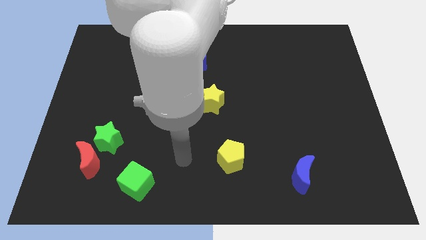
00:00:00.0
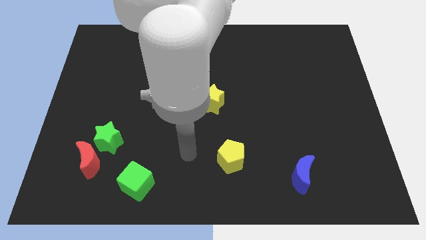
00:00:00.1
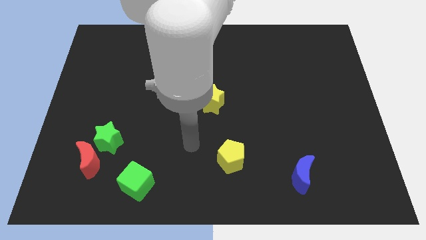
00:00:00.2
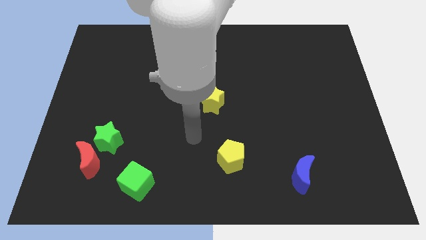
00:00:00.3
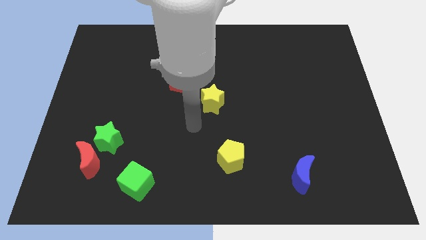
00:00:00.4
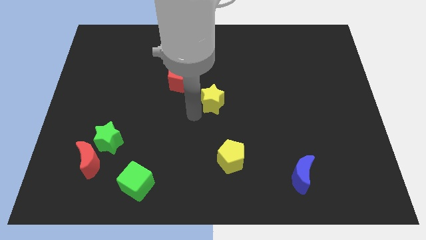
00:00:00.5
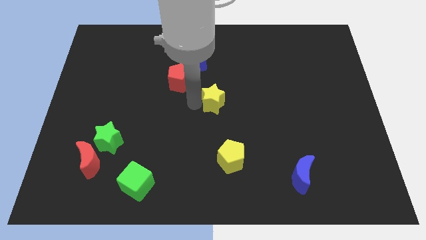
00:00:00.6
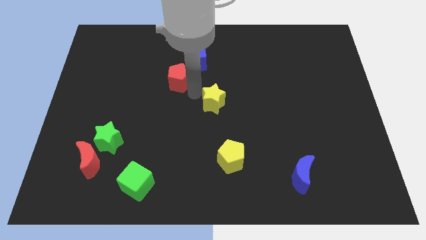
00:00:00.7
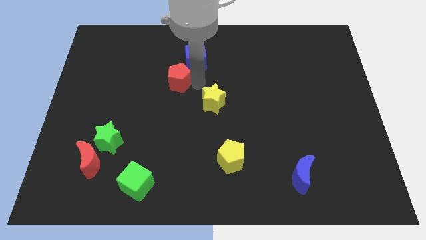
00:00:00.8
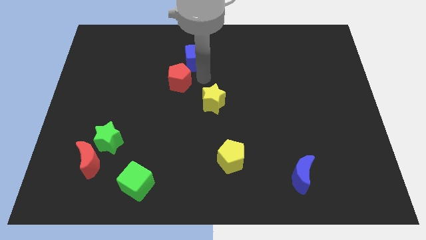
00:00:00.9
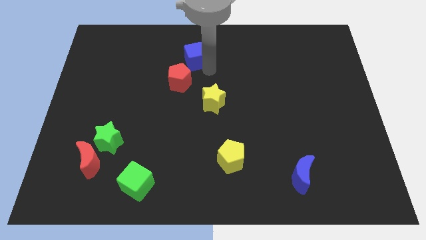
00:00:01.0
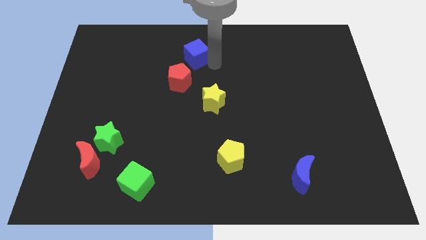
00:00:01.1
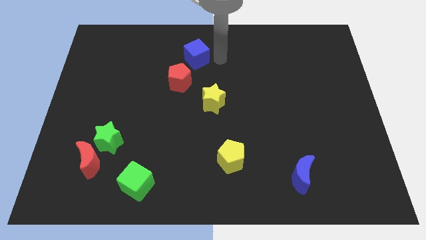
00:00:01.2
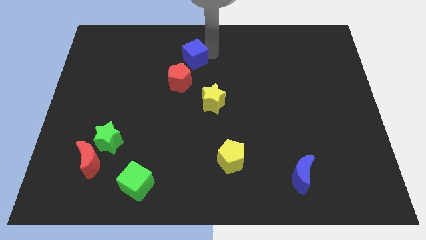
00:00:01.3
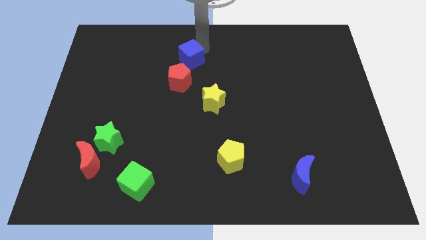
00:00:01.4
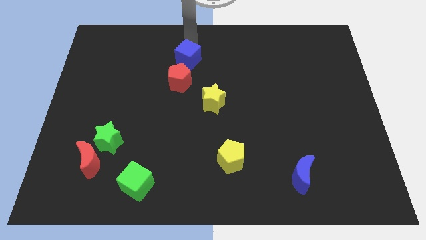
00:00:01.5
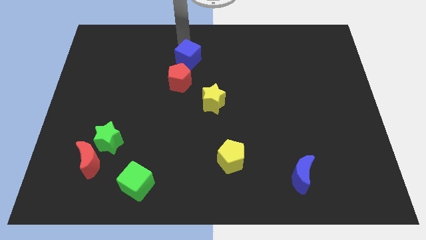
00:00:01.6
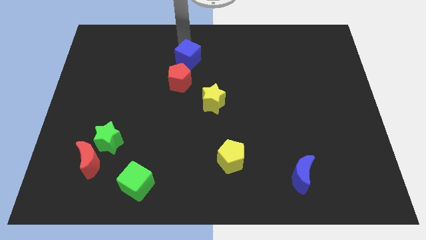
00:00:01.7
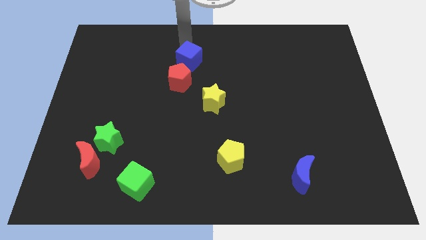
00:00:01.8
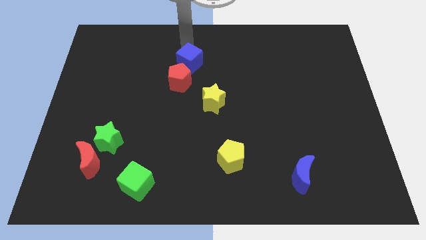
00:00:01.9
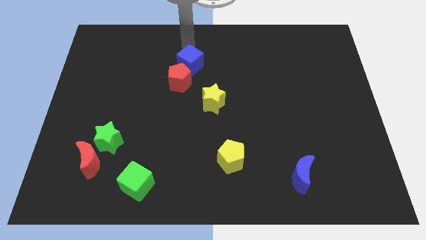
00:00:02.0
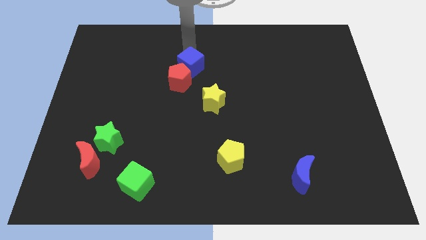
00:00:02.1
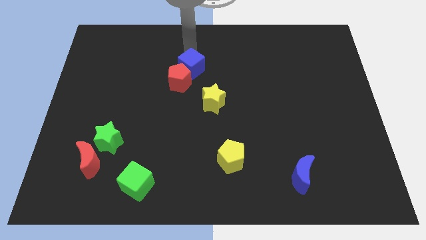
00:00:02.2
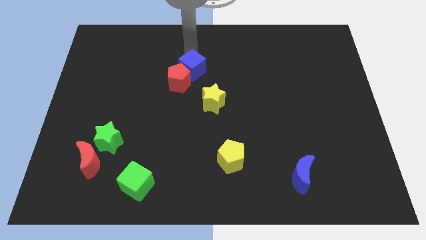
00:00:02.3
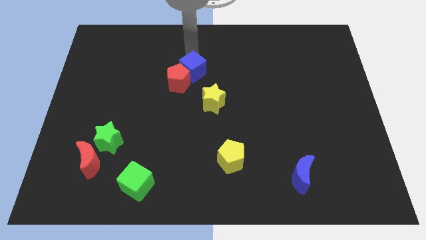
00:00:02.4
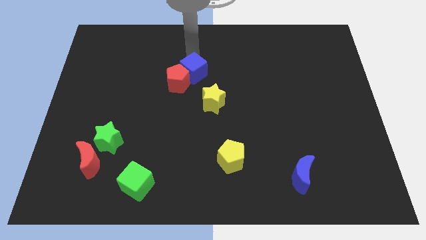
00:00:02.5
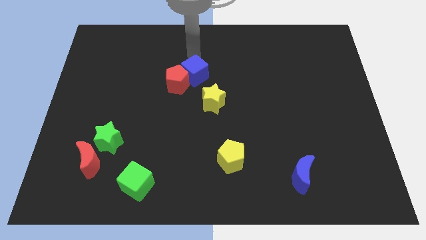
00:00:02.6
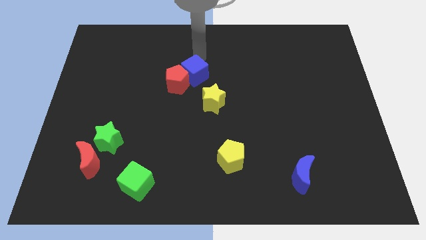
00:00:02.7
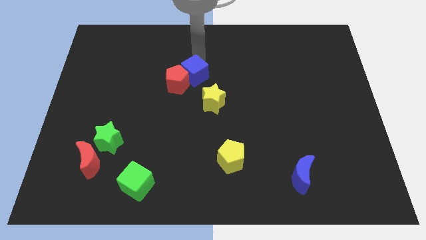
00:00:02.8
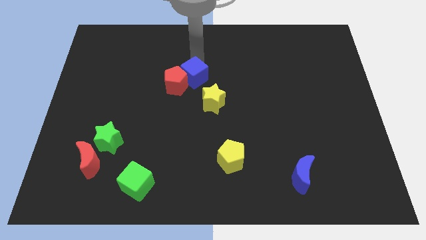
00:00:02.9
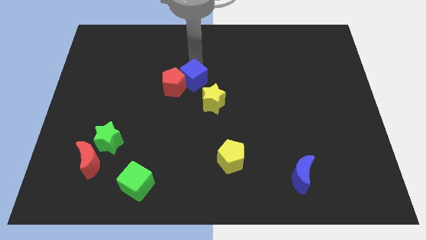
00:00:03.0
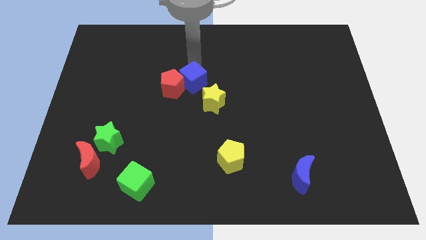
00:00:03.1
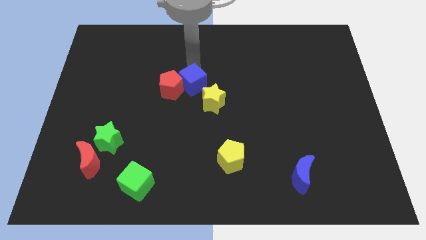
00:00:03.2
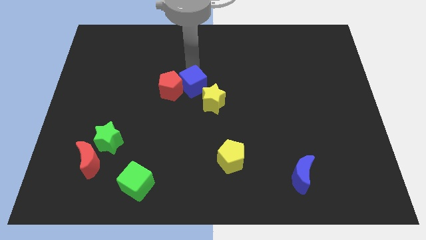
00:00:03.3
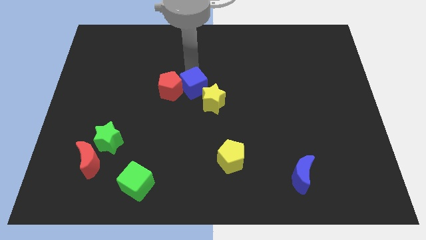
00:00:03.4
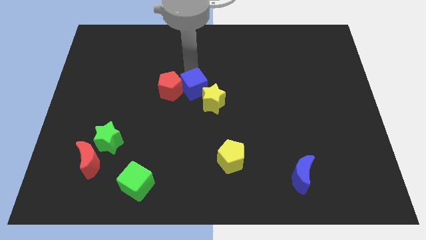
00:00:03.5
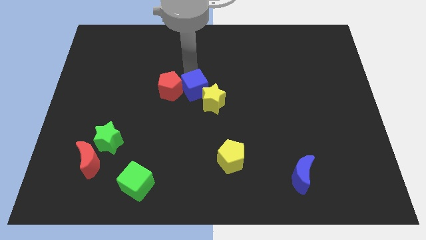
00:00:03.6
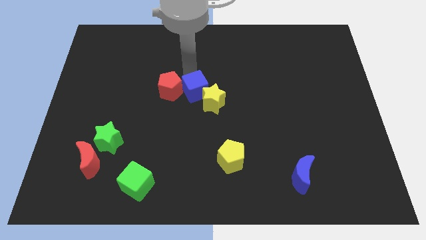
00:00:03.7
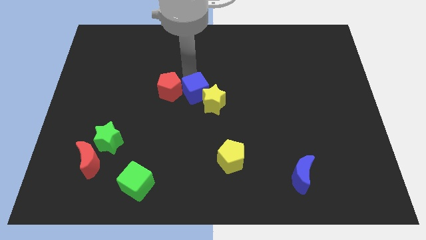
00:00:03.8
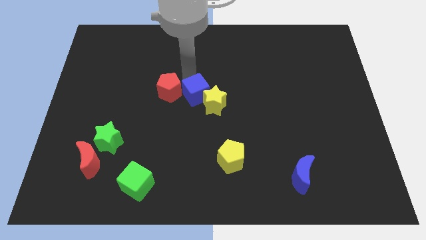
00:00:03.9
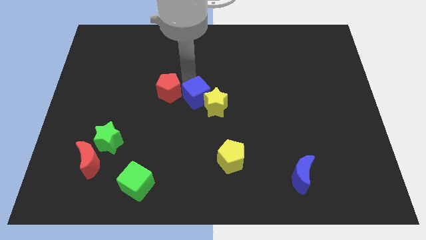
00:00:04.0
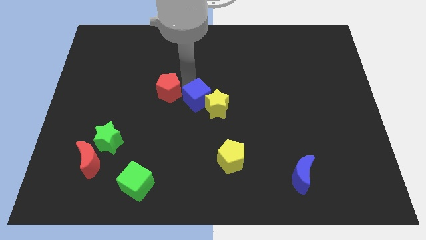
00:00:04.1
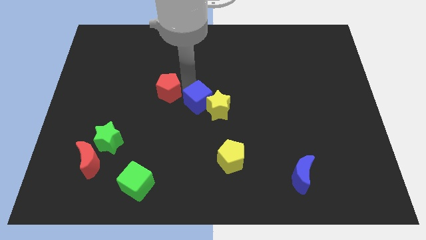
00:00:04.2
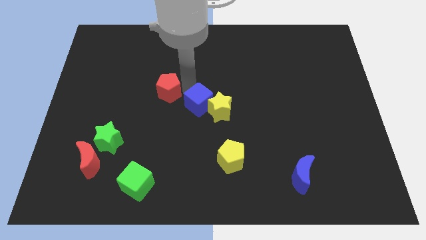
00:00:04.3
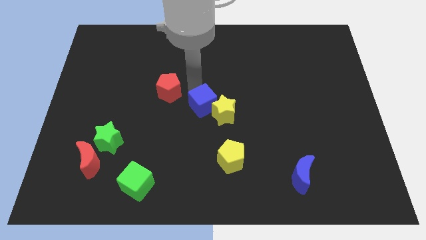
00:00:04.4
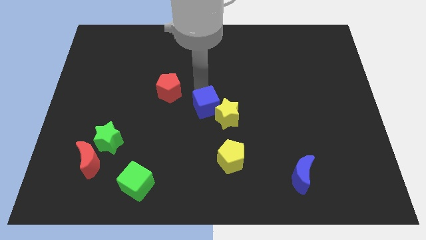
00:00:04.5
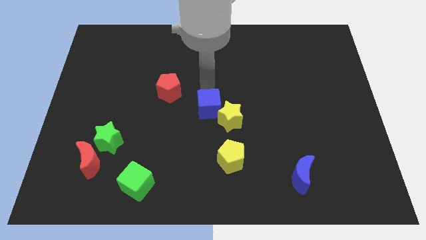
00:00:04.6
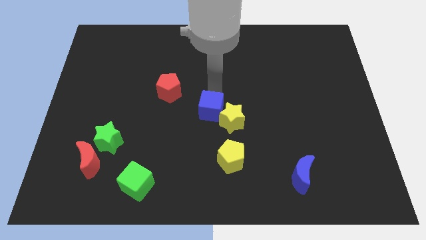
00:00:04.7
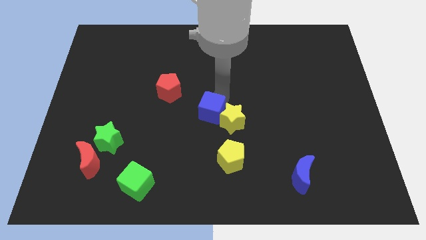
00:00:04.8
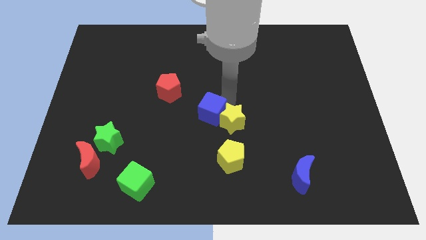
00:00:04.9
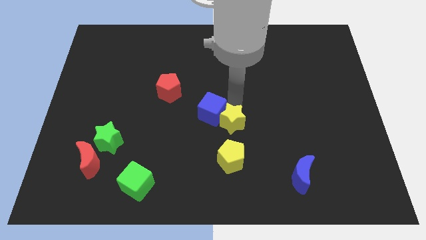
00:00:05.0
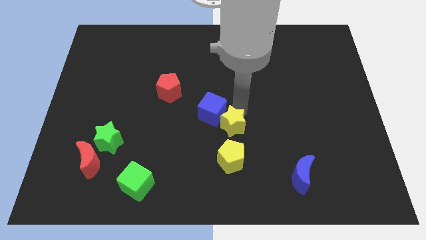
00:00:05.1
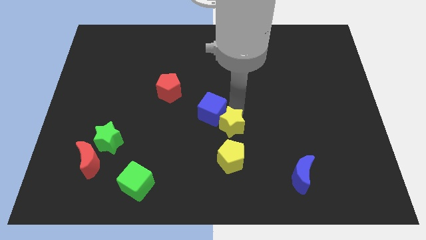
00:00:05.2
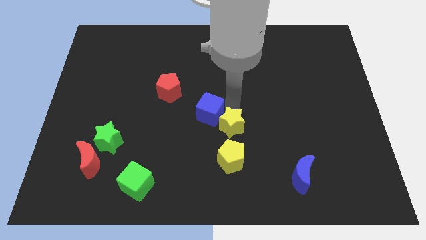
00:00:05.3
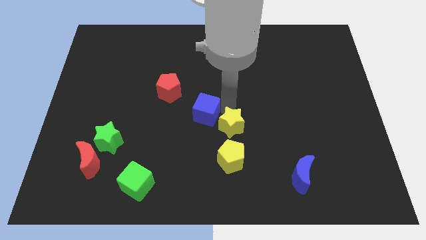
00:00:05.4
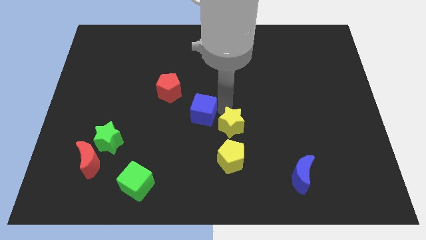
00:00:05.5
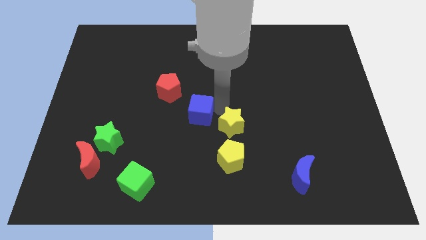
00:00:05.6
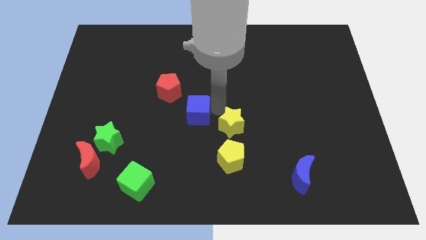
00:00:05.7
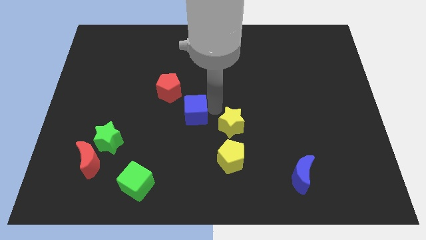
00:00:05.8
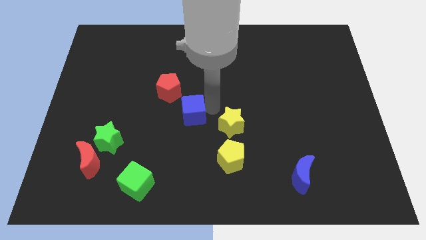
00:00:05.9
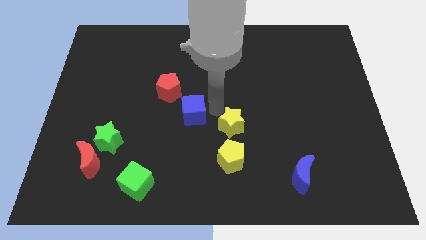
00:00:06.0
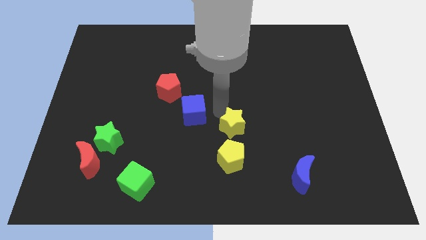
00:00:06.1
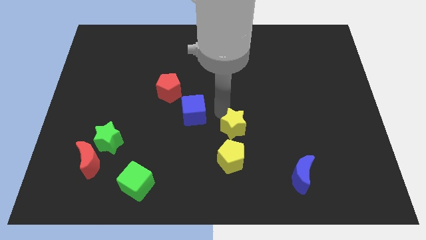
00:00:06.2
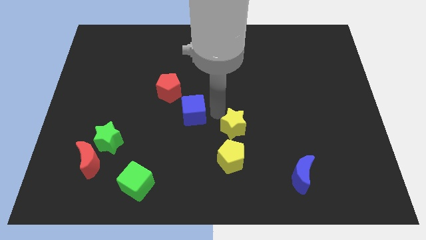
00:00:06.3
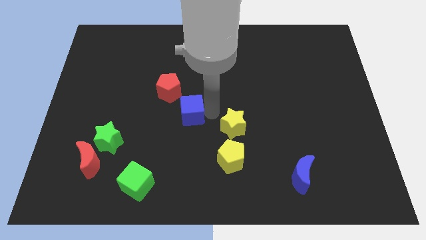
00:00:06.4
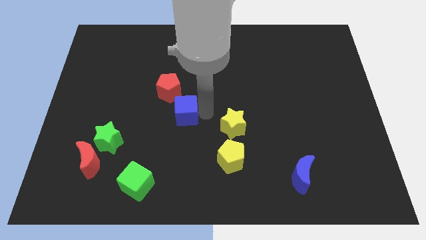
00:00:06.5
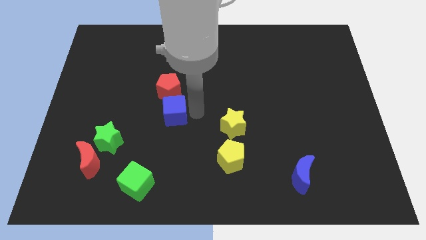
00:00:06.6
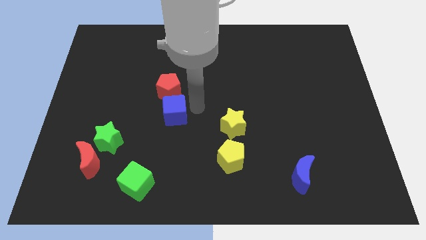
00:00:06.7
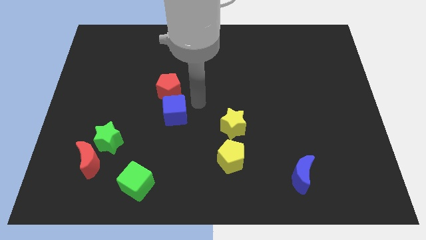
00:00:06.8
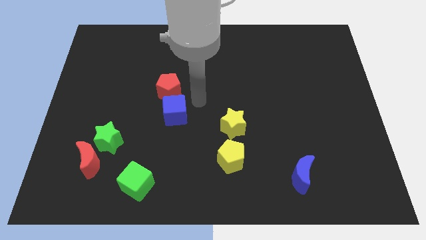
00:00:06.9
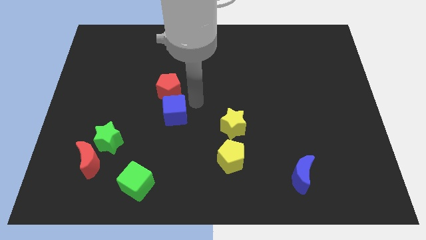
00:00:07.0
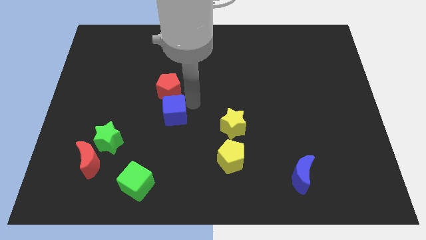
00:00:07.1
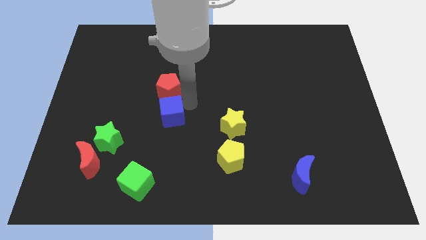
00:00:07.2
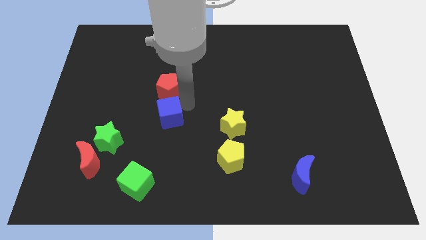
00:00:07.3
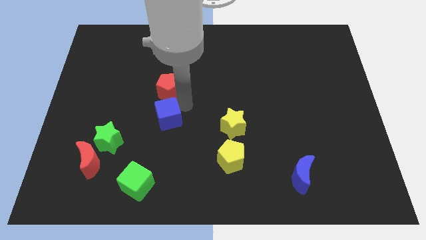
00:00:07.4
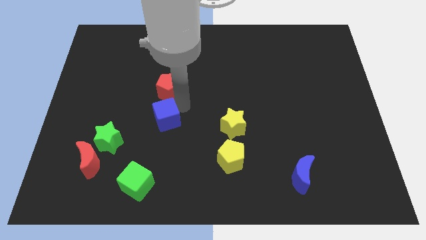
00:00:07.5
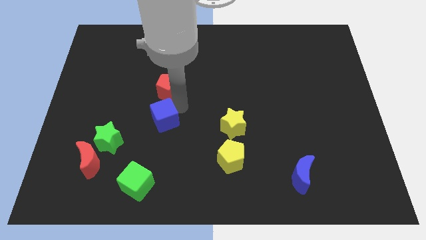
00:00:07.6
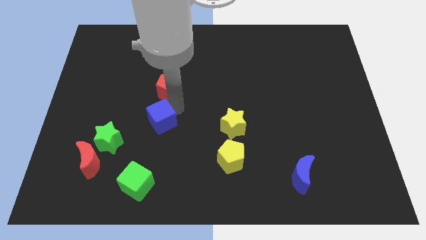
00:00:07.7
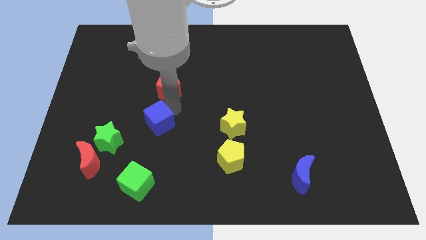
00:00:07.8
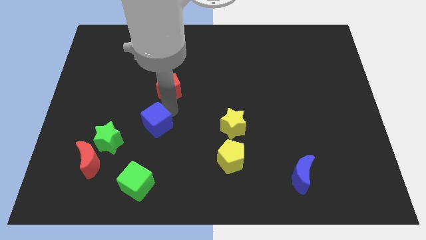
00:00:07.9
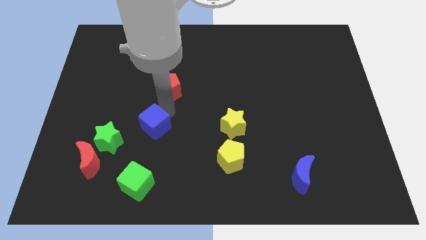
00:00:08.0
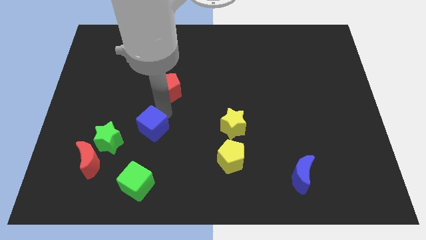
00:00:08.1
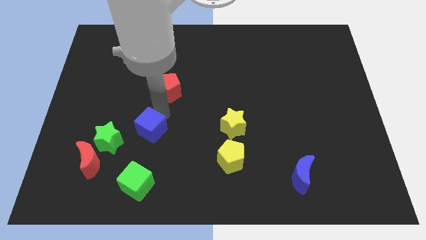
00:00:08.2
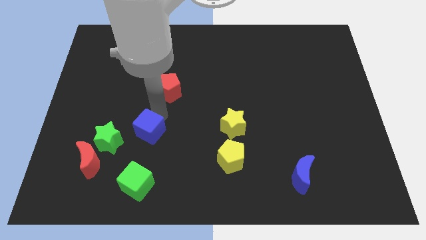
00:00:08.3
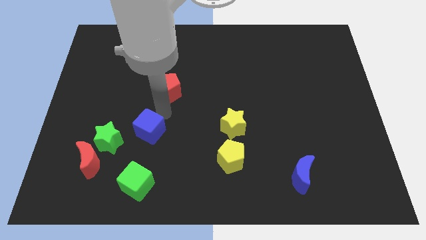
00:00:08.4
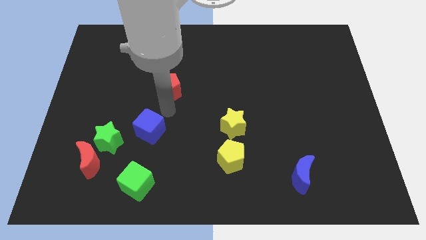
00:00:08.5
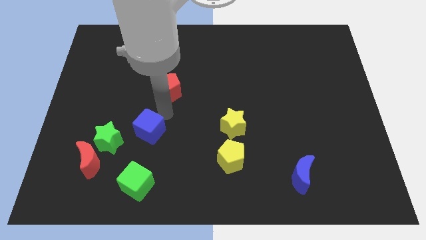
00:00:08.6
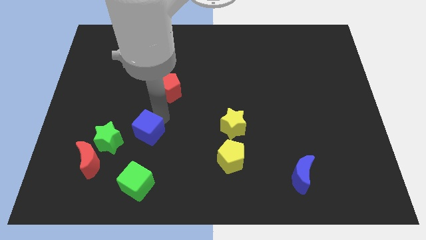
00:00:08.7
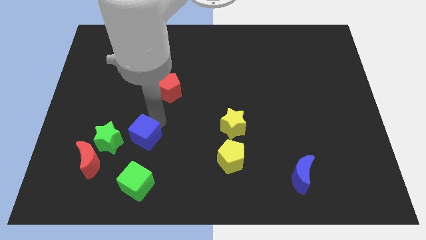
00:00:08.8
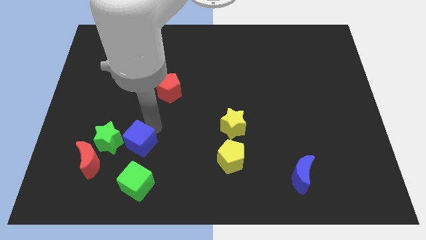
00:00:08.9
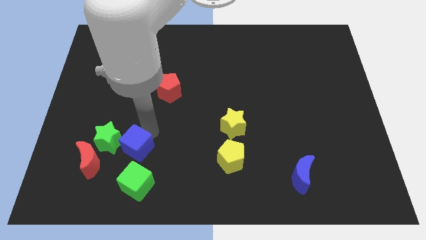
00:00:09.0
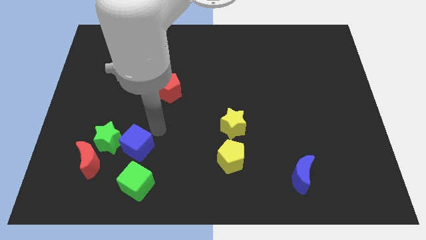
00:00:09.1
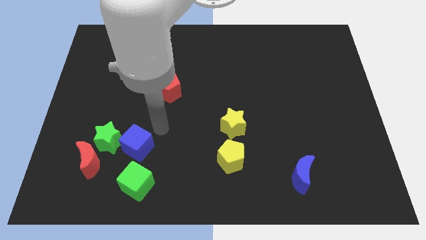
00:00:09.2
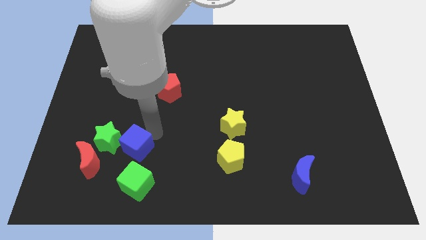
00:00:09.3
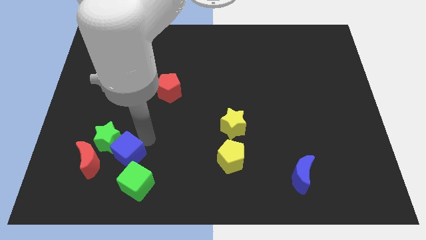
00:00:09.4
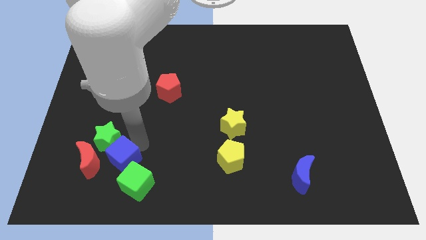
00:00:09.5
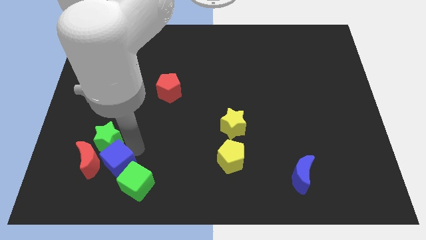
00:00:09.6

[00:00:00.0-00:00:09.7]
push the blue cube to the left side of the green cube
